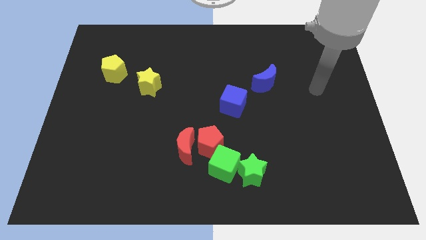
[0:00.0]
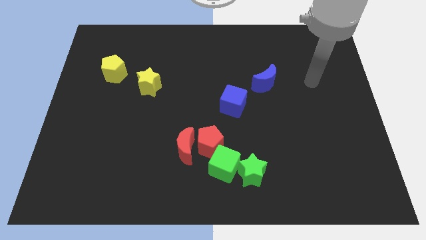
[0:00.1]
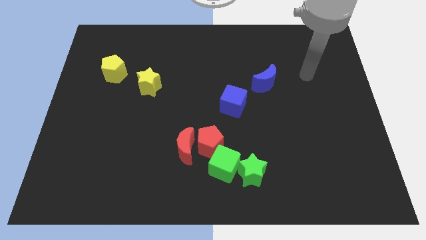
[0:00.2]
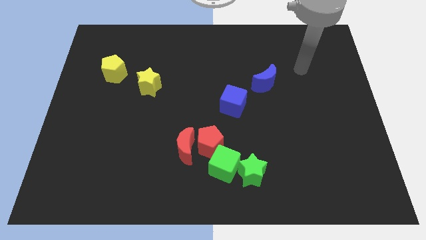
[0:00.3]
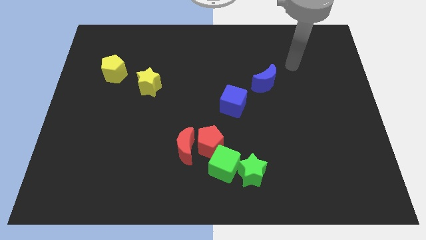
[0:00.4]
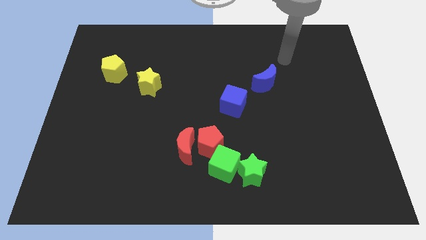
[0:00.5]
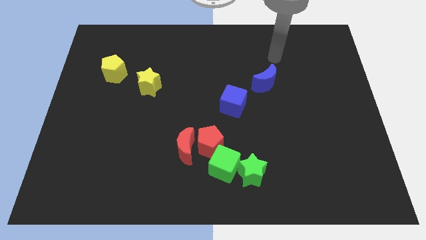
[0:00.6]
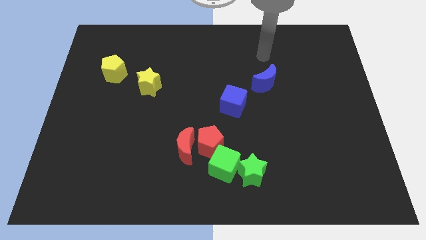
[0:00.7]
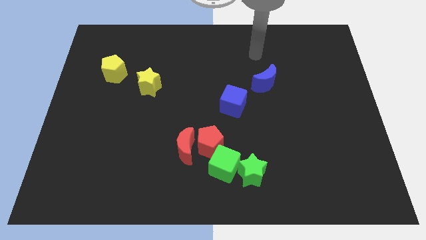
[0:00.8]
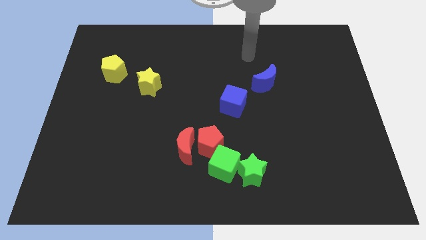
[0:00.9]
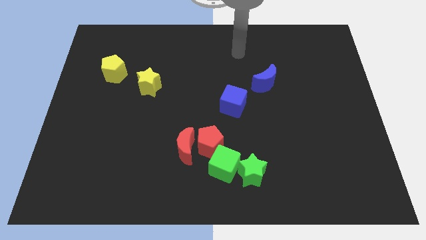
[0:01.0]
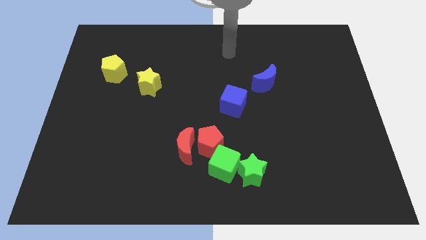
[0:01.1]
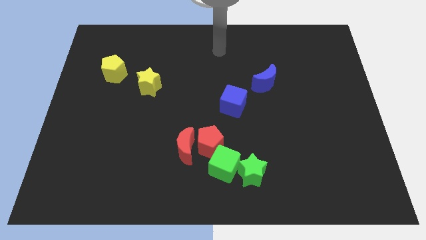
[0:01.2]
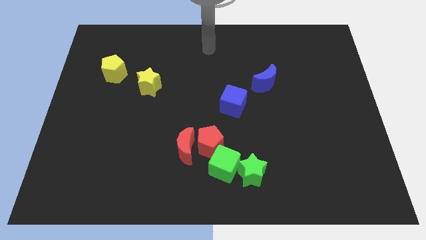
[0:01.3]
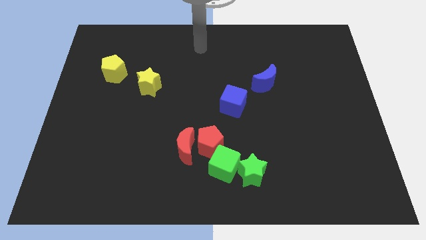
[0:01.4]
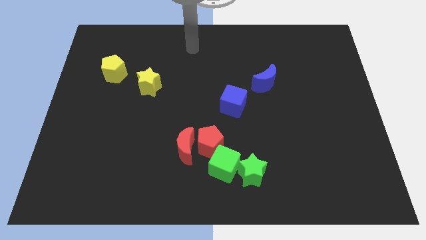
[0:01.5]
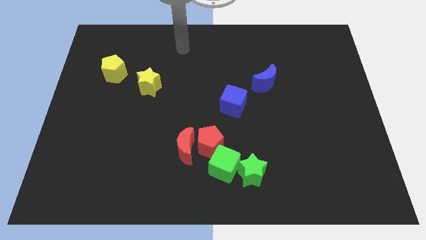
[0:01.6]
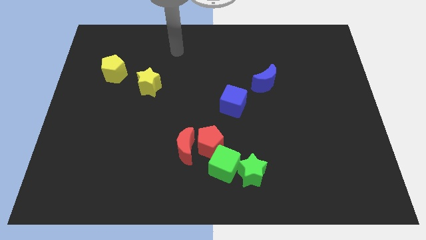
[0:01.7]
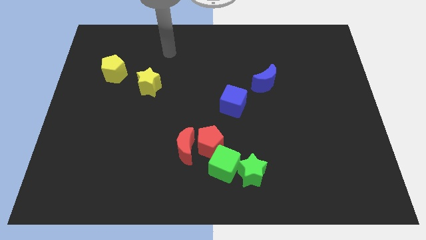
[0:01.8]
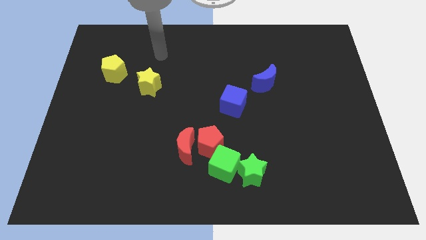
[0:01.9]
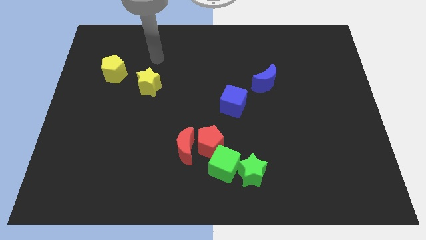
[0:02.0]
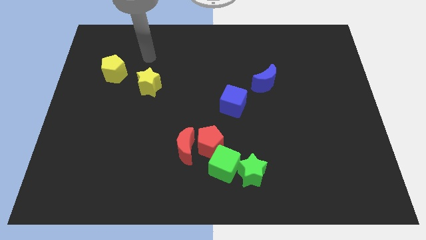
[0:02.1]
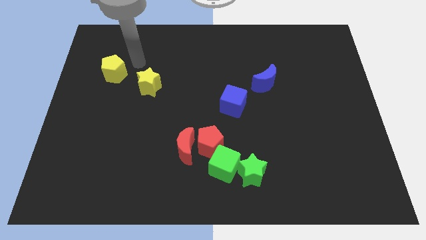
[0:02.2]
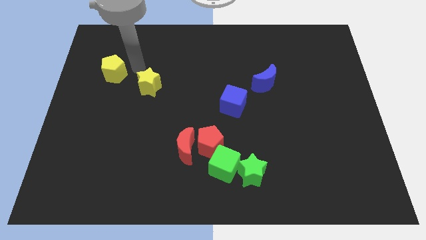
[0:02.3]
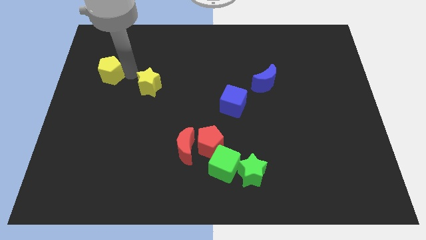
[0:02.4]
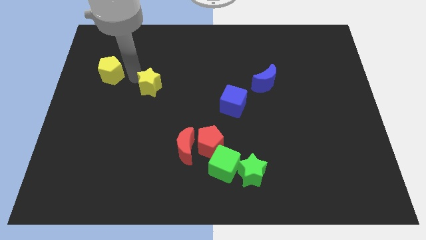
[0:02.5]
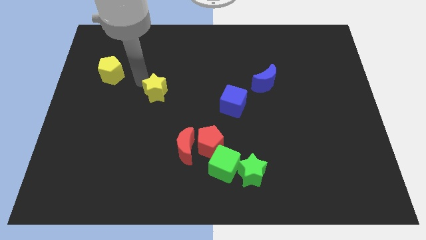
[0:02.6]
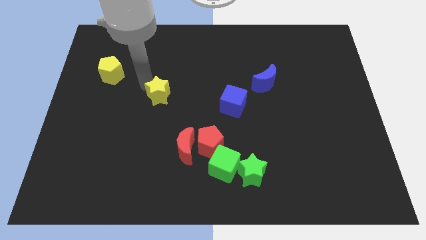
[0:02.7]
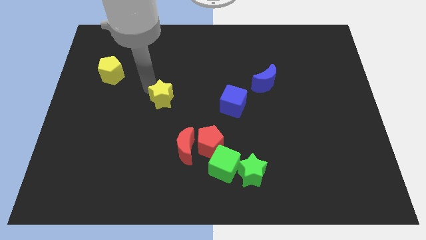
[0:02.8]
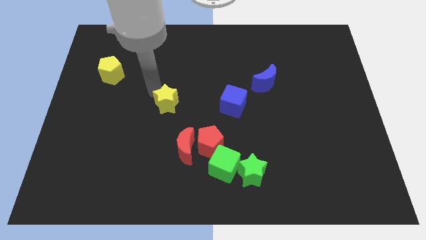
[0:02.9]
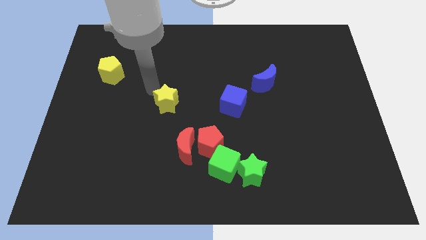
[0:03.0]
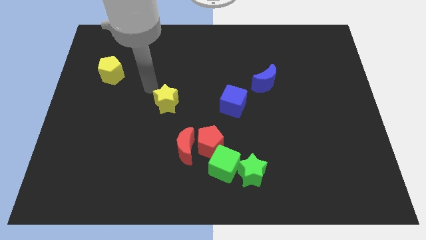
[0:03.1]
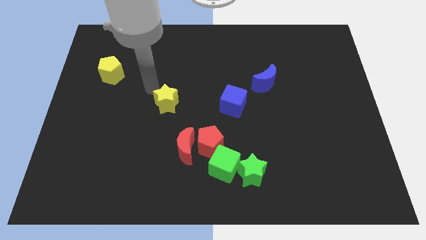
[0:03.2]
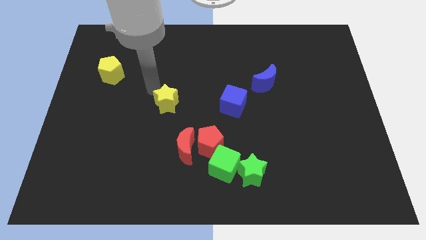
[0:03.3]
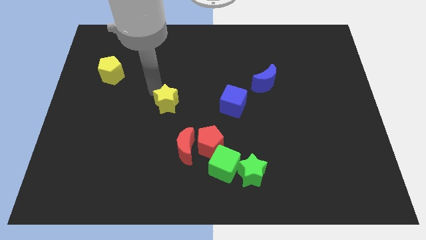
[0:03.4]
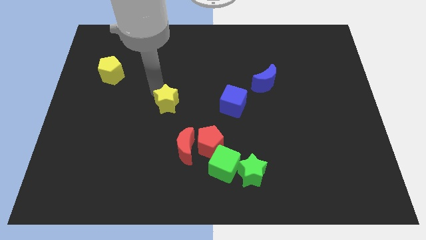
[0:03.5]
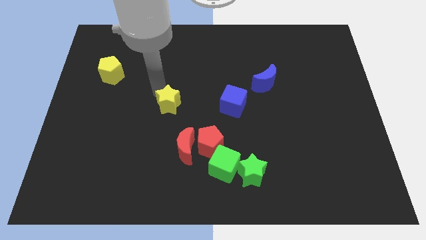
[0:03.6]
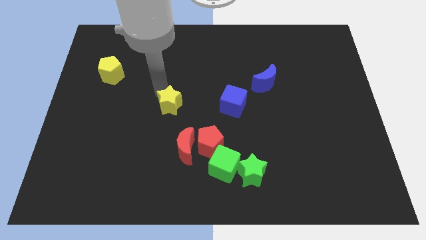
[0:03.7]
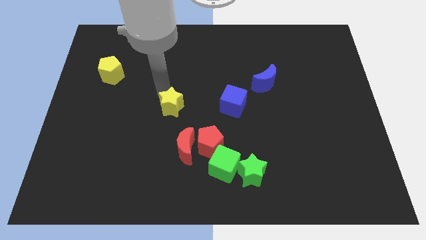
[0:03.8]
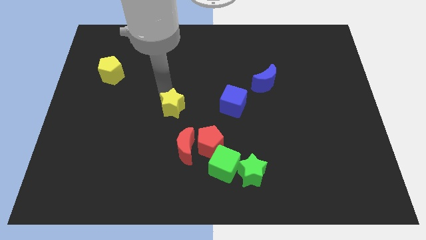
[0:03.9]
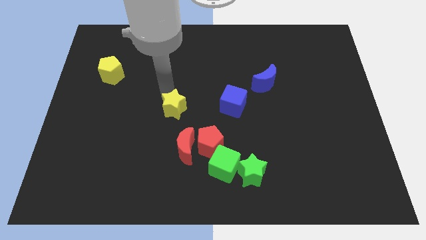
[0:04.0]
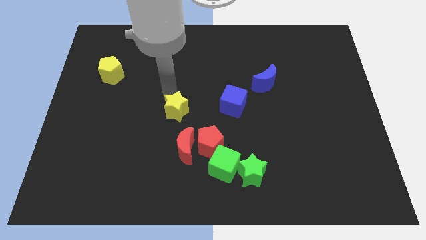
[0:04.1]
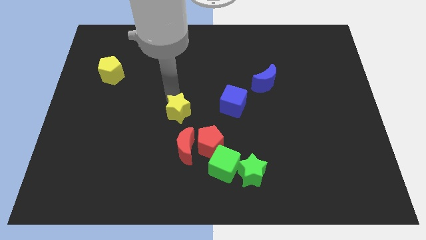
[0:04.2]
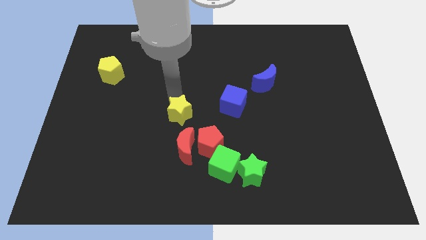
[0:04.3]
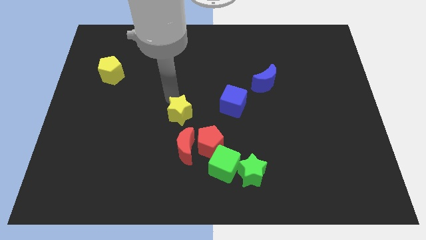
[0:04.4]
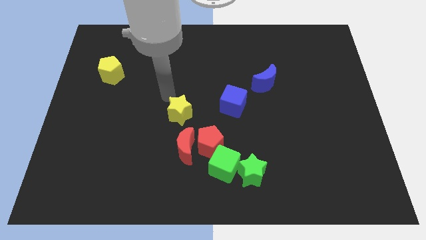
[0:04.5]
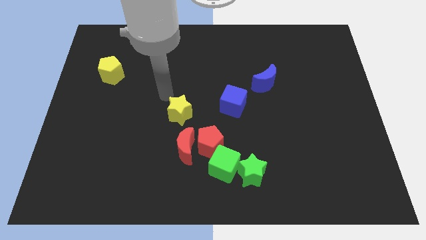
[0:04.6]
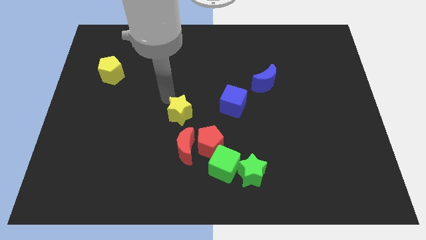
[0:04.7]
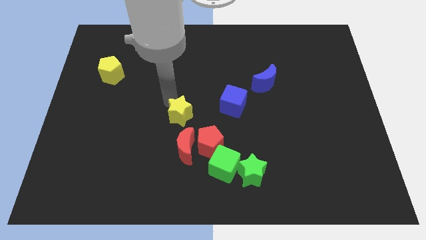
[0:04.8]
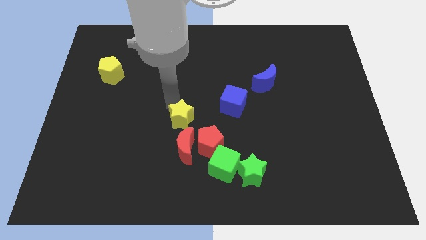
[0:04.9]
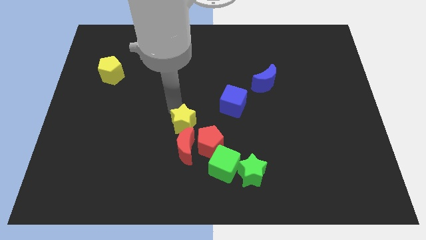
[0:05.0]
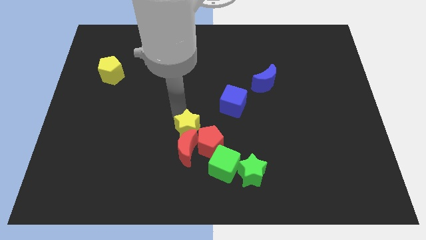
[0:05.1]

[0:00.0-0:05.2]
move the yellow star towards the red moon

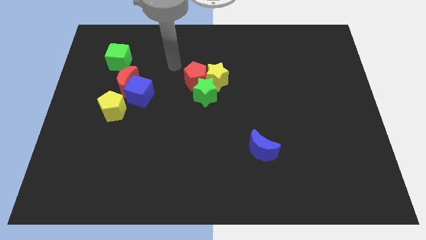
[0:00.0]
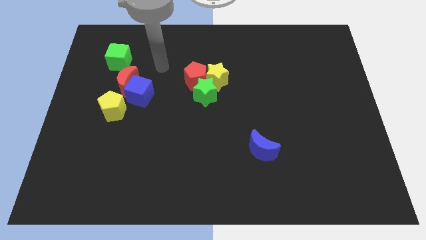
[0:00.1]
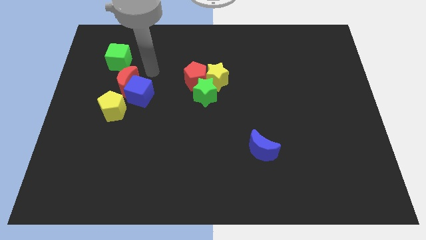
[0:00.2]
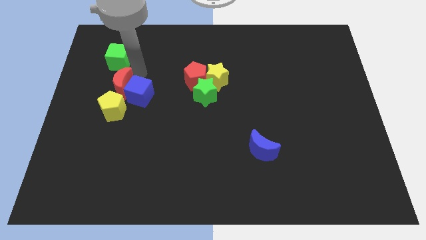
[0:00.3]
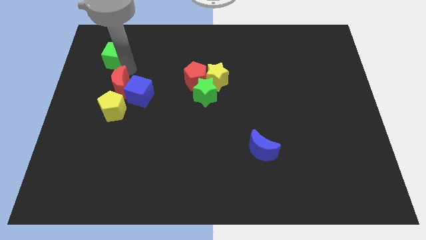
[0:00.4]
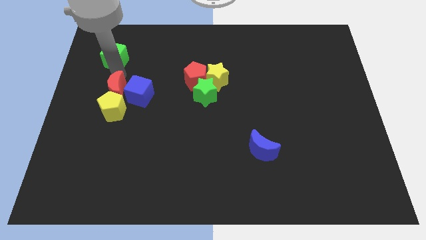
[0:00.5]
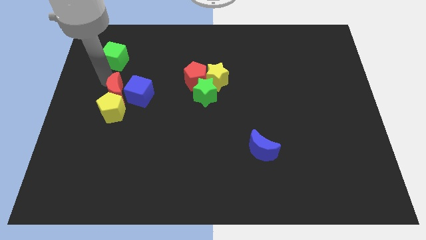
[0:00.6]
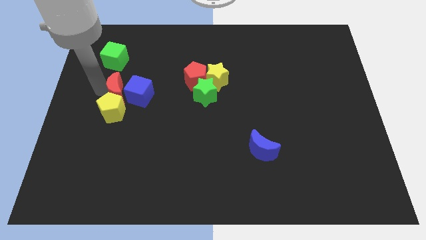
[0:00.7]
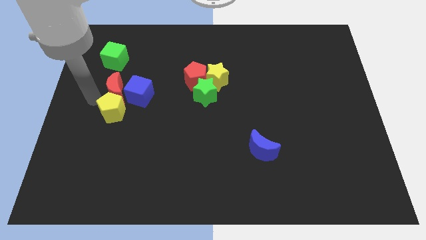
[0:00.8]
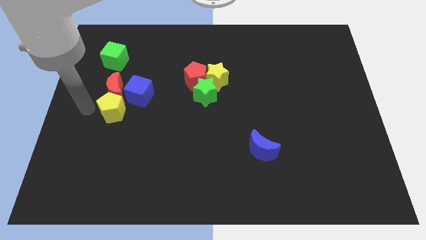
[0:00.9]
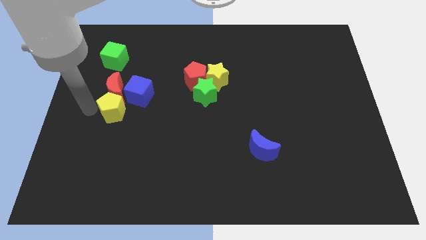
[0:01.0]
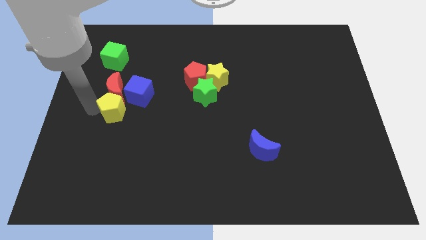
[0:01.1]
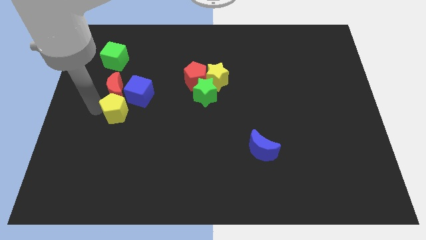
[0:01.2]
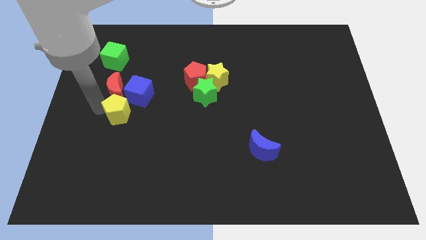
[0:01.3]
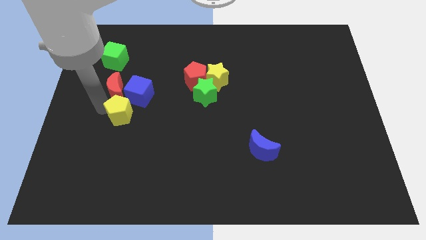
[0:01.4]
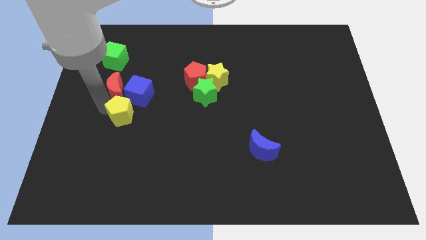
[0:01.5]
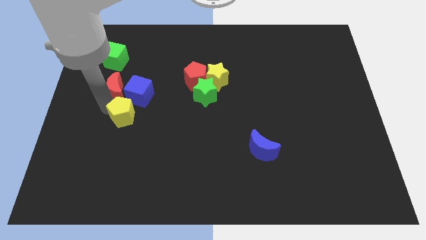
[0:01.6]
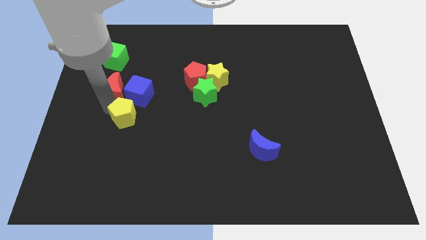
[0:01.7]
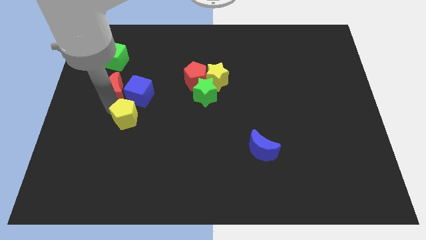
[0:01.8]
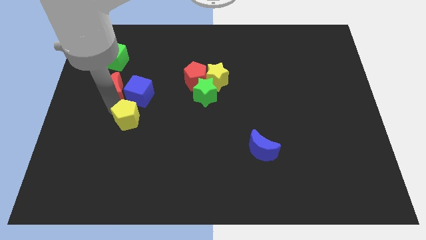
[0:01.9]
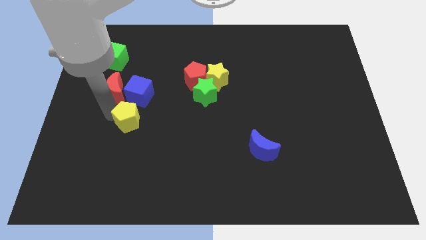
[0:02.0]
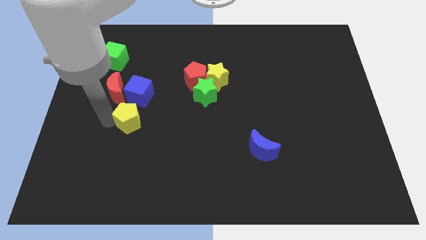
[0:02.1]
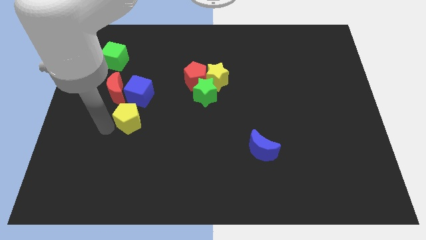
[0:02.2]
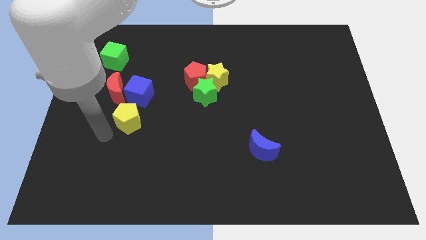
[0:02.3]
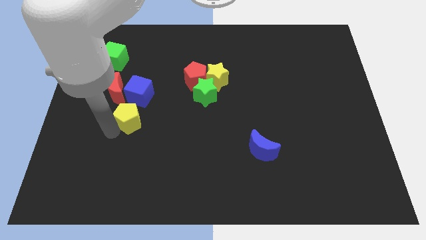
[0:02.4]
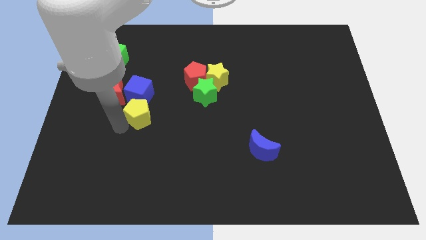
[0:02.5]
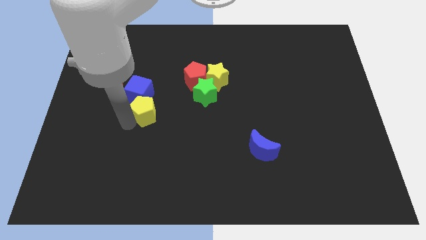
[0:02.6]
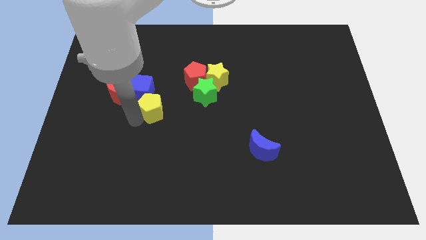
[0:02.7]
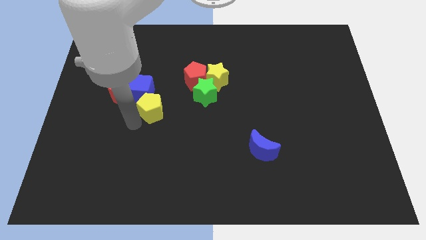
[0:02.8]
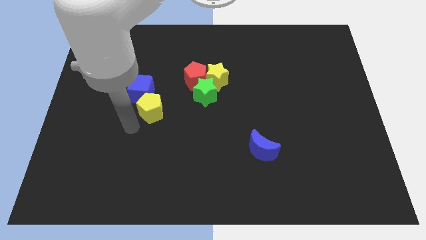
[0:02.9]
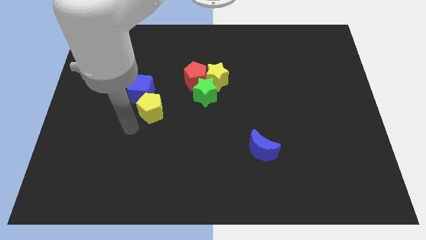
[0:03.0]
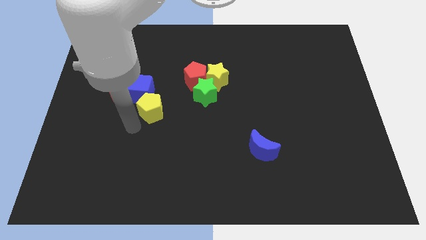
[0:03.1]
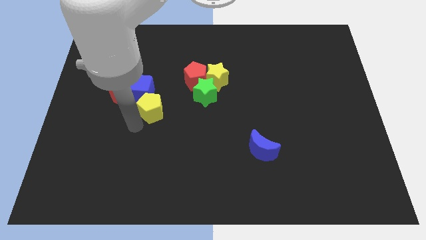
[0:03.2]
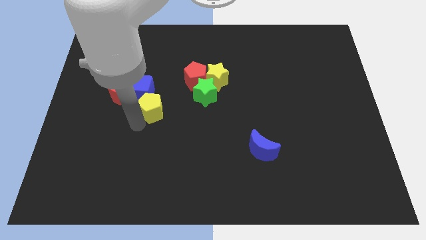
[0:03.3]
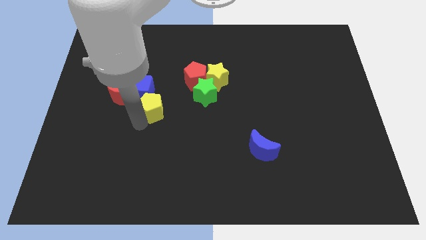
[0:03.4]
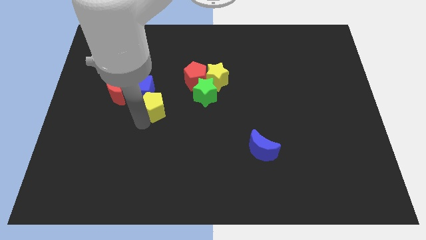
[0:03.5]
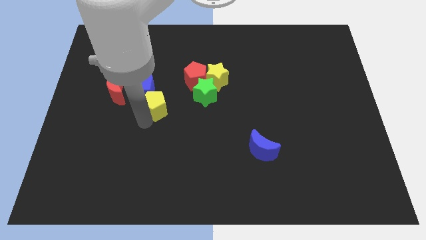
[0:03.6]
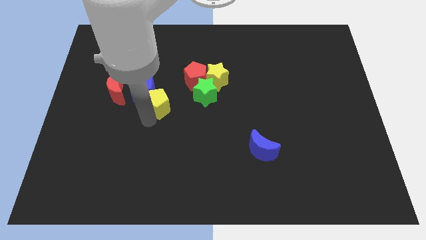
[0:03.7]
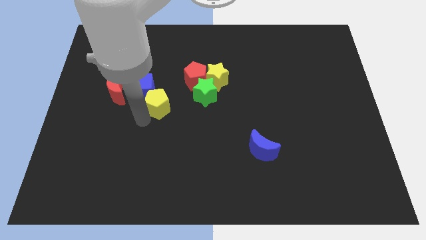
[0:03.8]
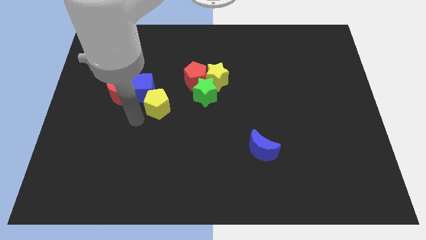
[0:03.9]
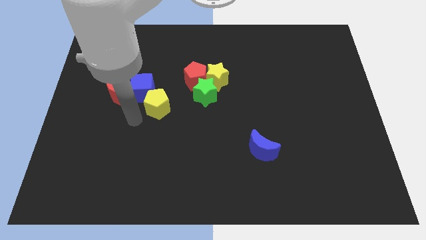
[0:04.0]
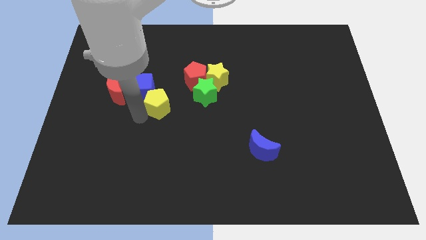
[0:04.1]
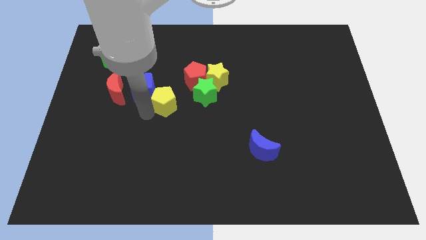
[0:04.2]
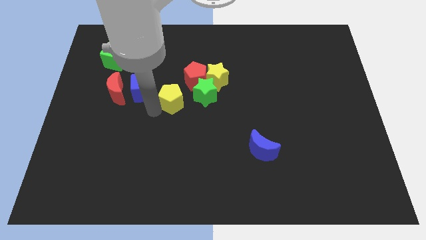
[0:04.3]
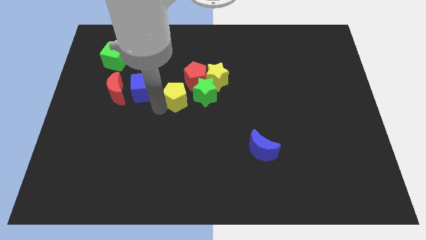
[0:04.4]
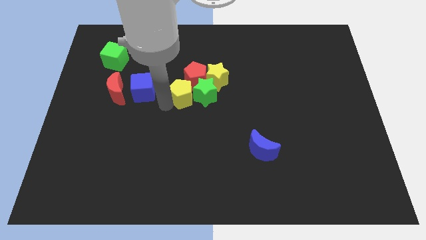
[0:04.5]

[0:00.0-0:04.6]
slide the yellow pentagon next to the green star
